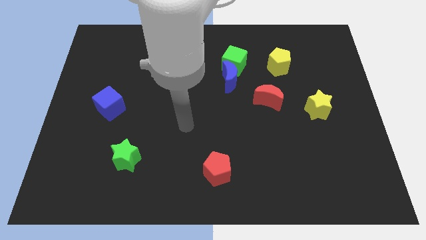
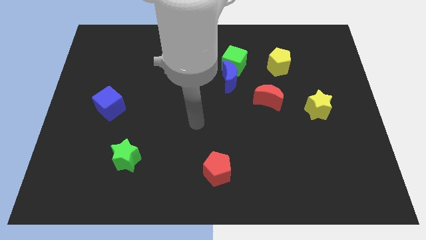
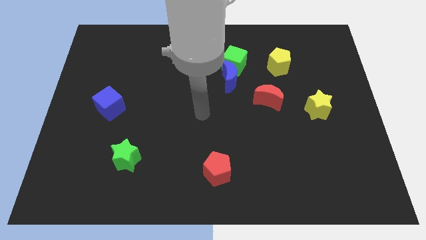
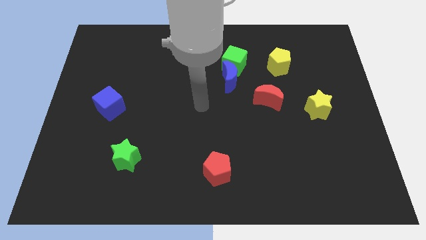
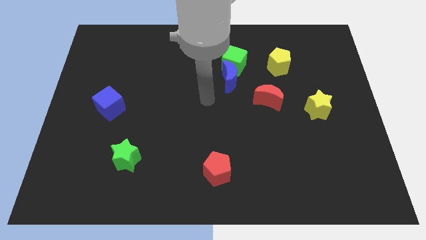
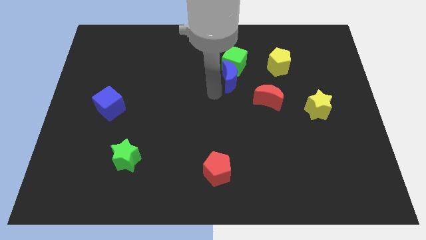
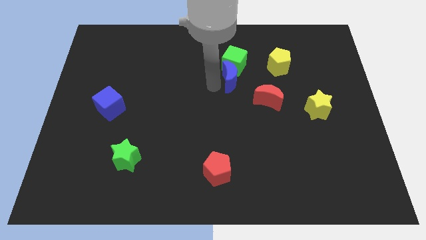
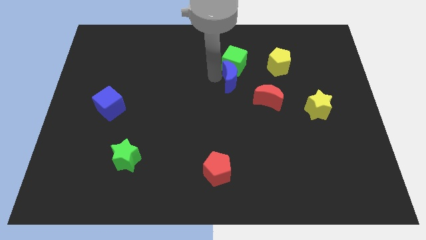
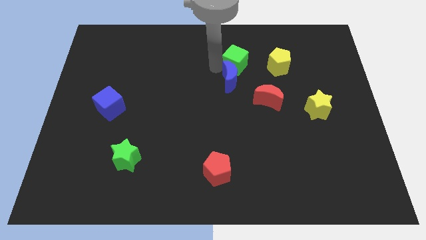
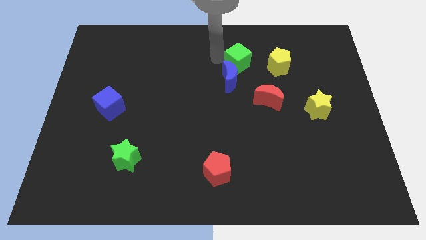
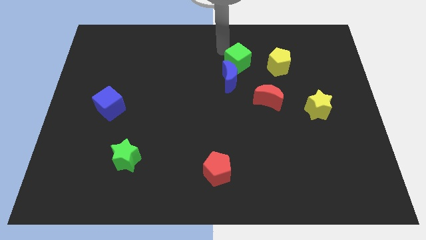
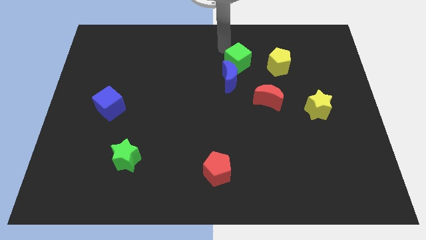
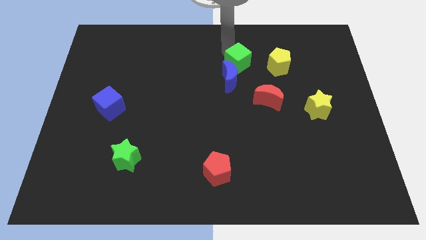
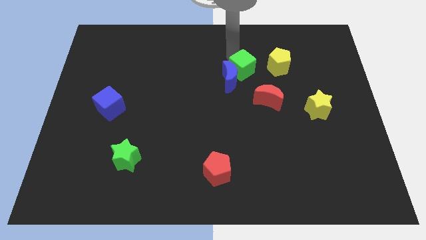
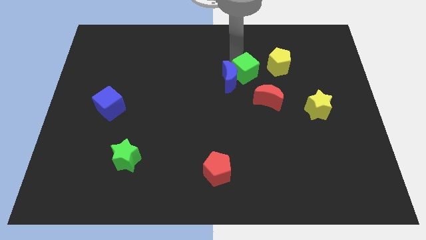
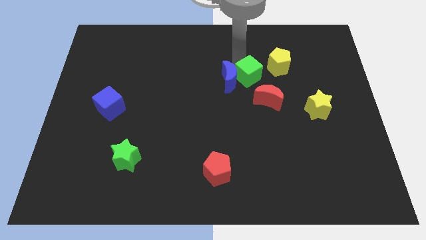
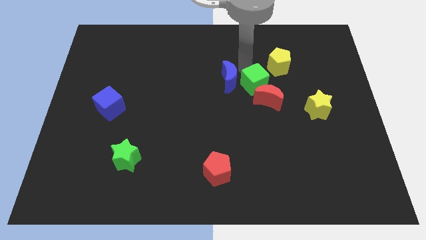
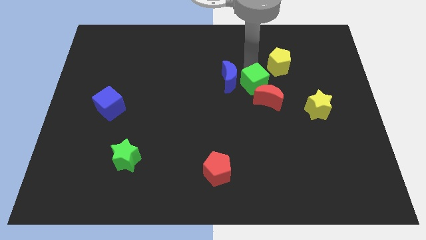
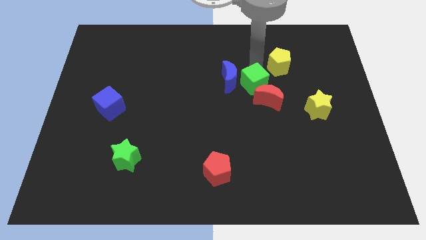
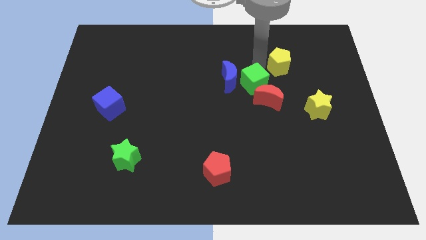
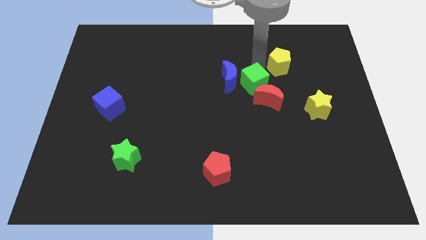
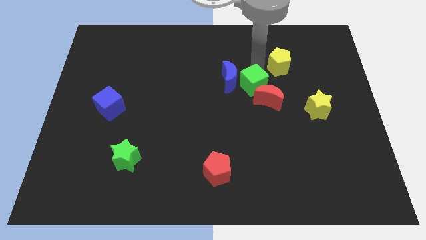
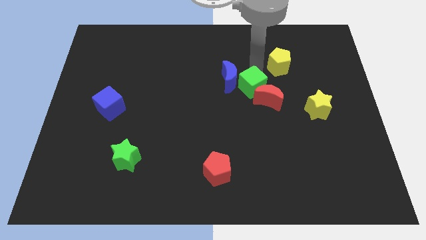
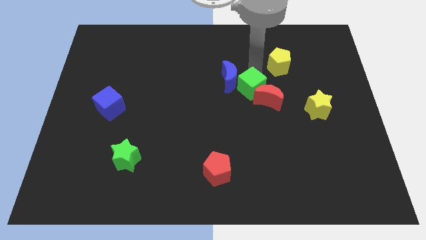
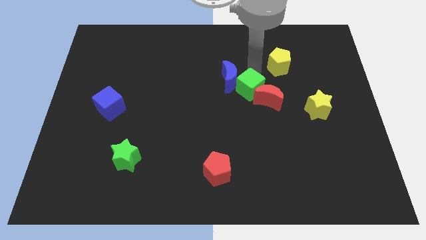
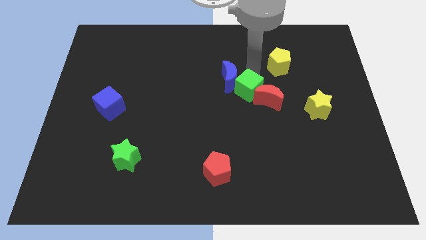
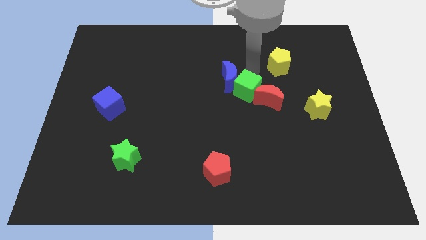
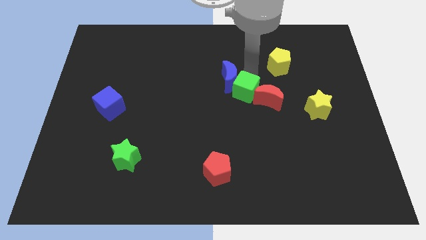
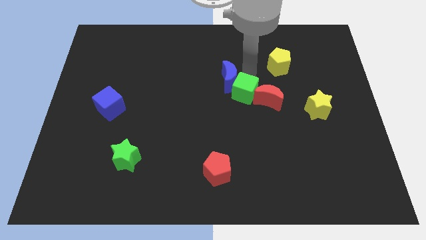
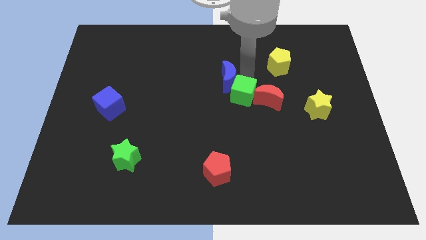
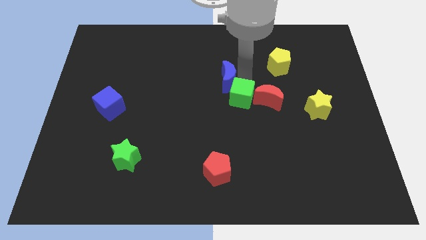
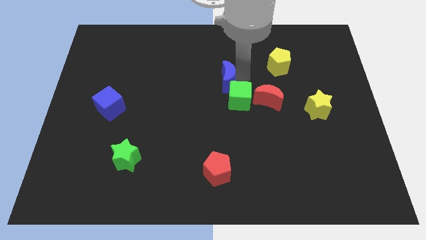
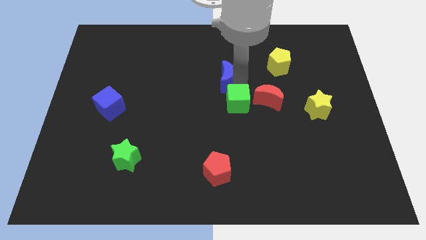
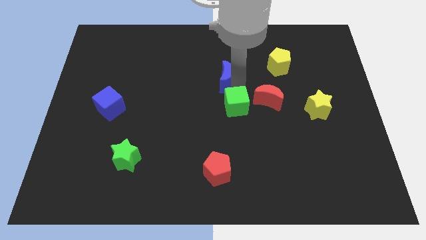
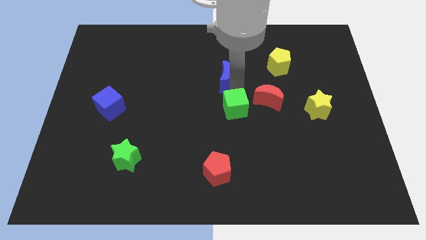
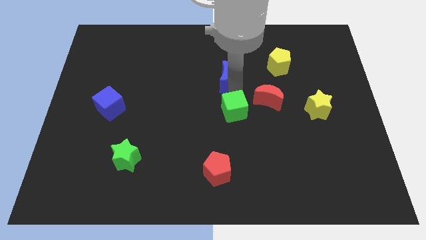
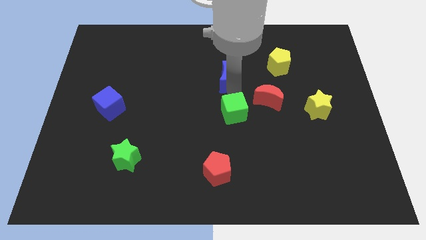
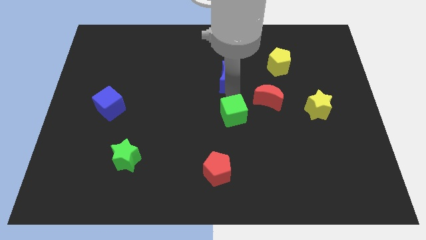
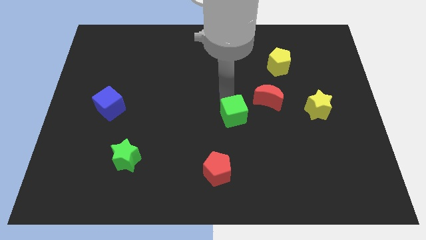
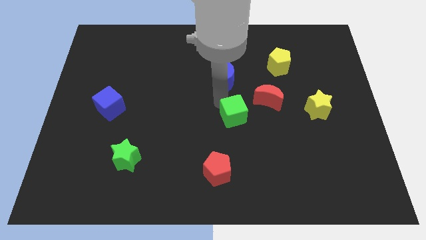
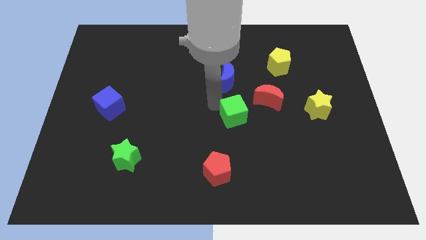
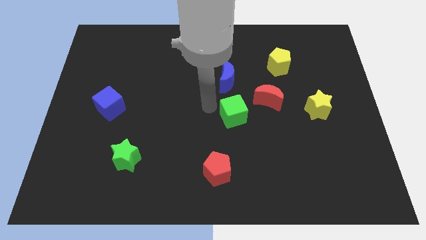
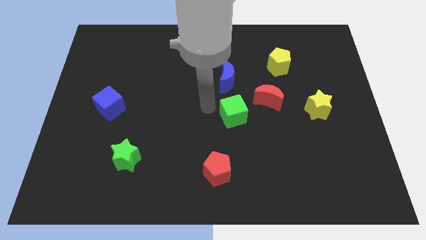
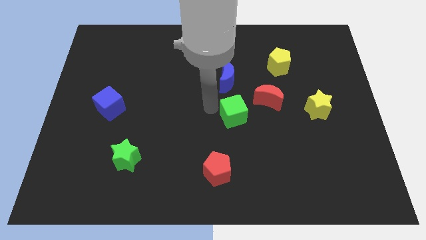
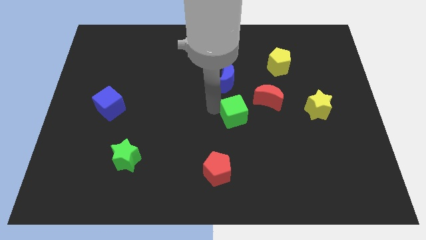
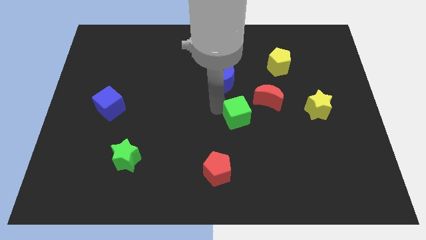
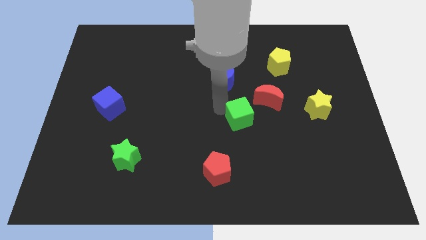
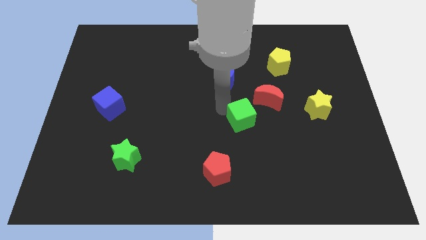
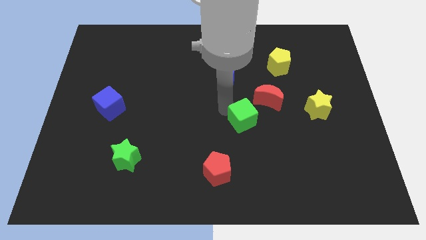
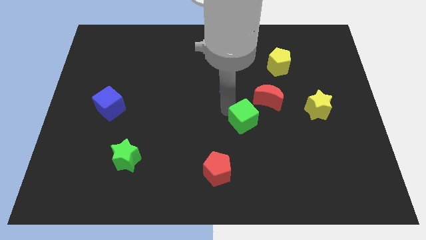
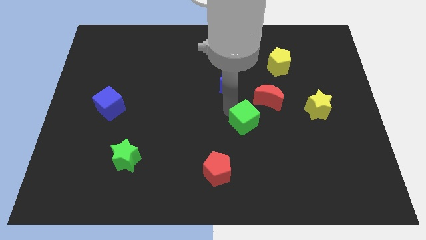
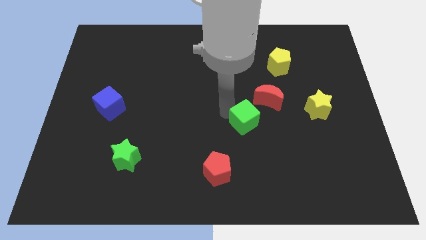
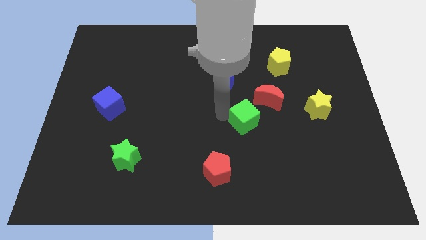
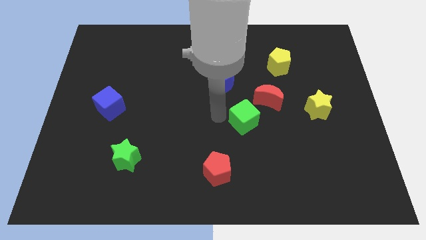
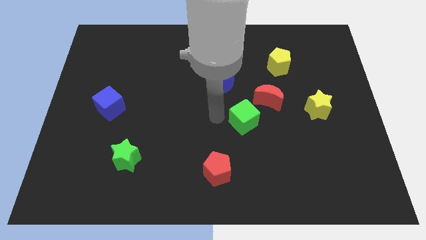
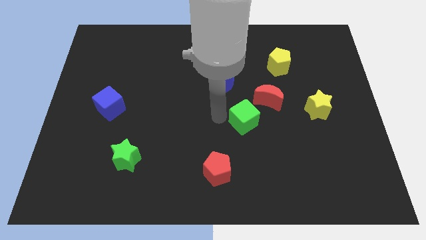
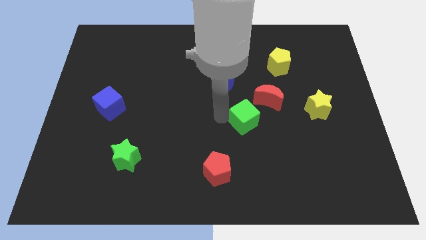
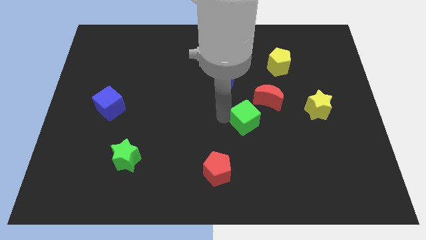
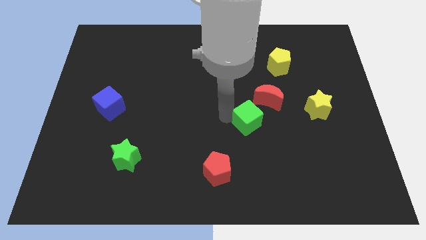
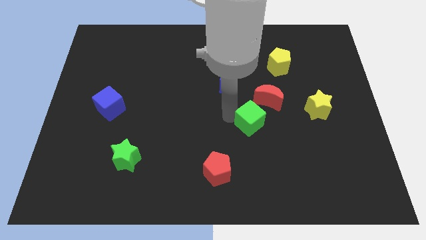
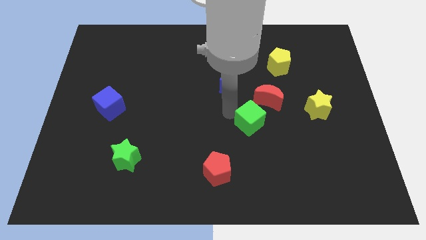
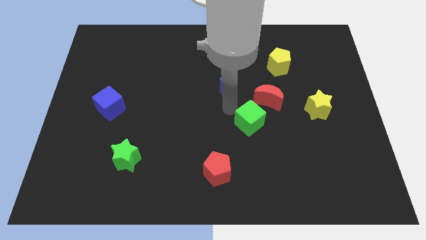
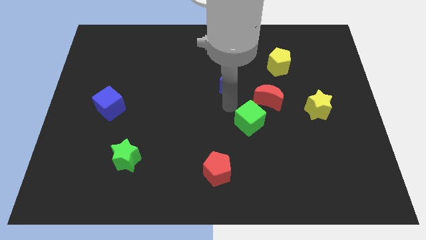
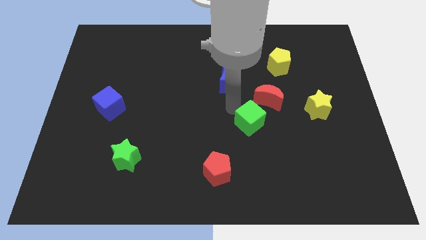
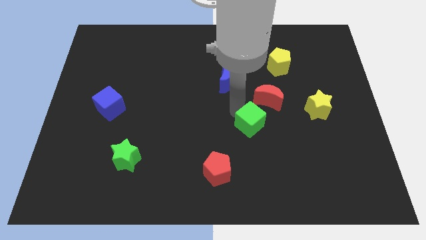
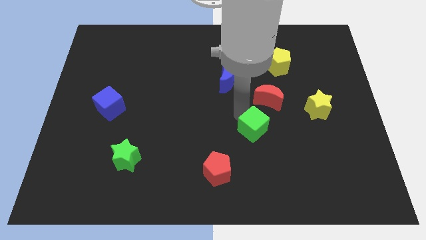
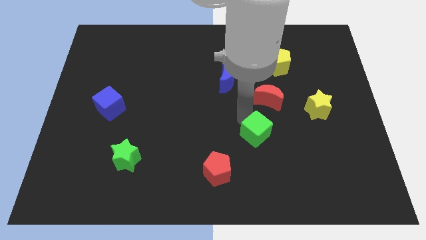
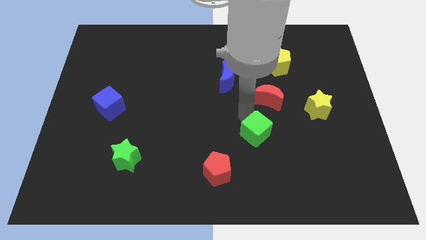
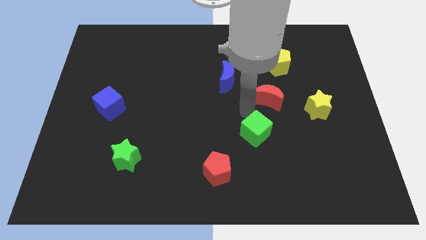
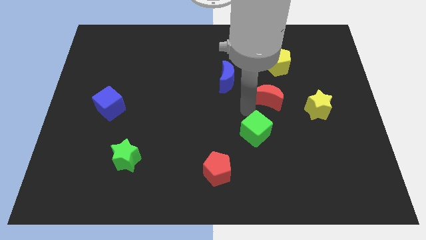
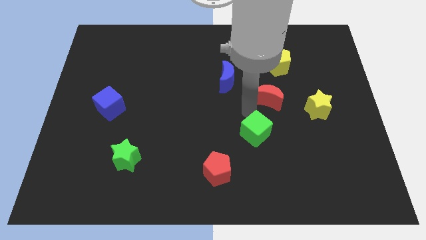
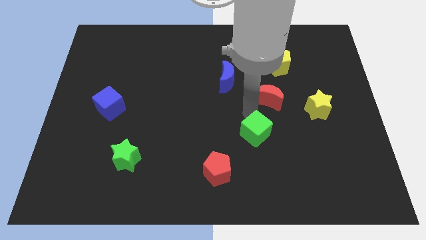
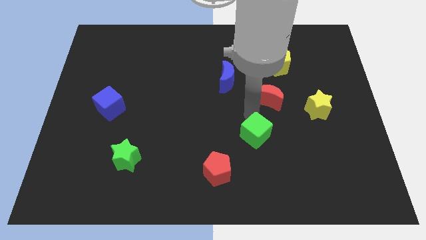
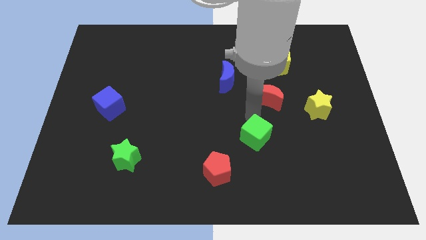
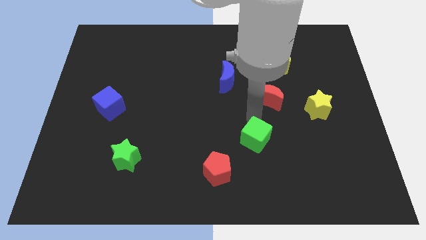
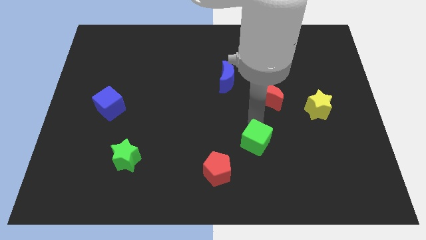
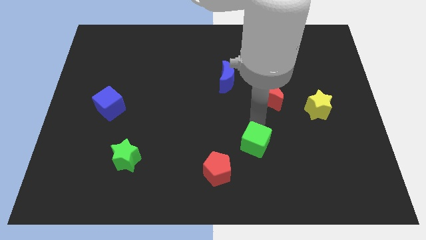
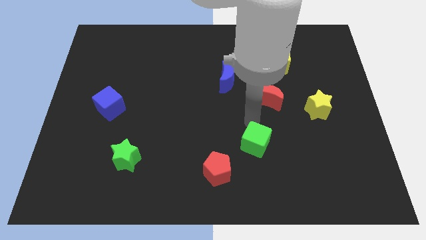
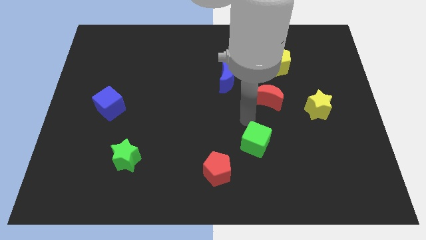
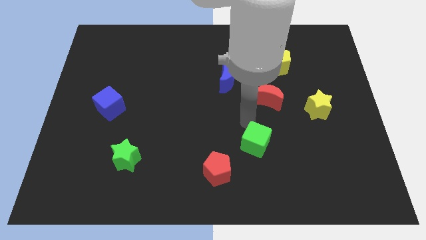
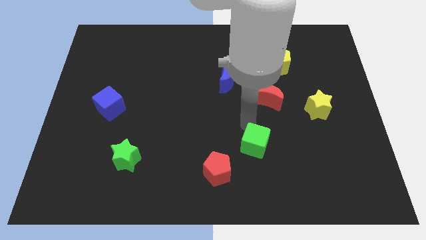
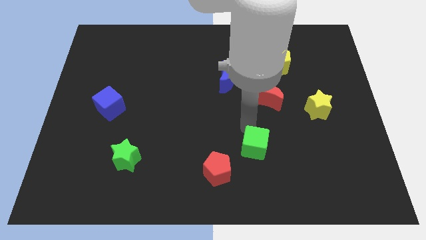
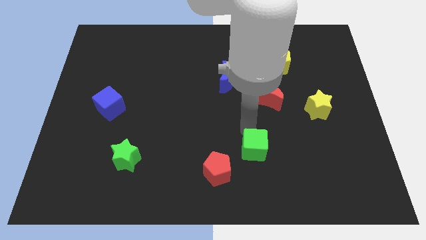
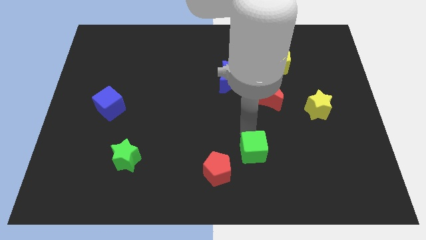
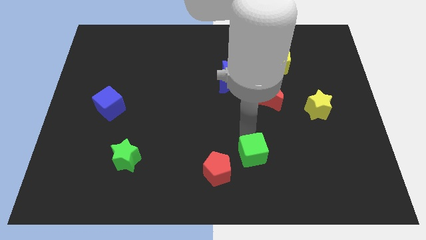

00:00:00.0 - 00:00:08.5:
move the green cube right of the red pentagon
